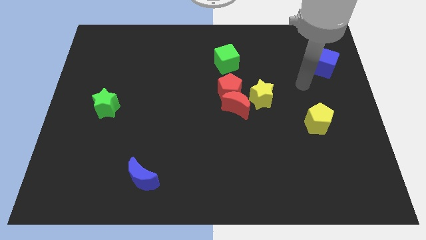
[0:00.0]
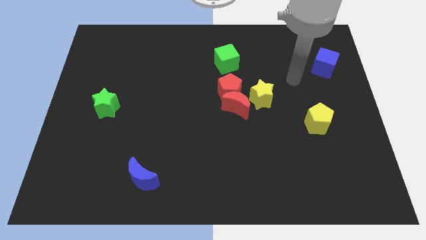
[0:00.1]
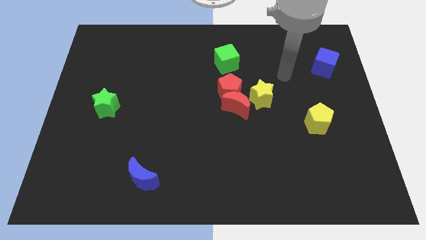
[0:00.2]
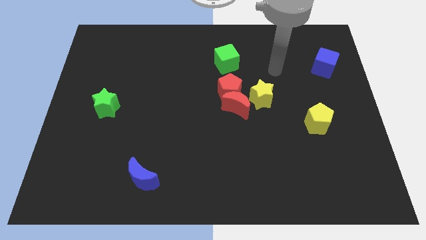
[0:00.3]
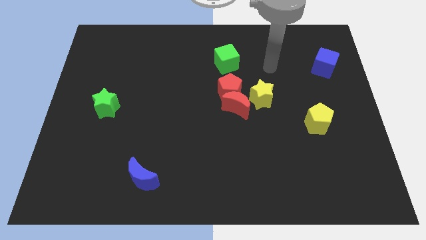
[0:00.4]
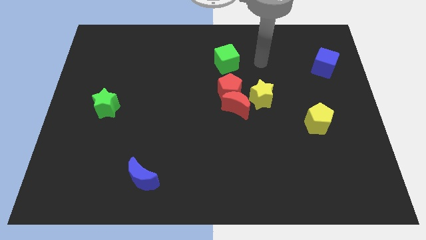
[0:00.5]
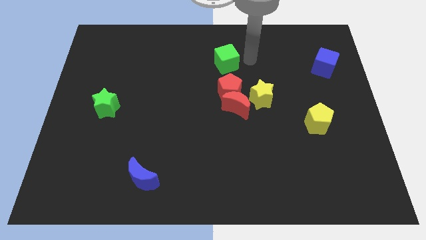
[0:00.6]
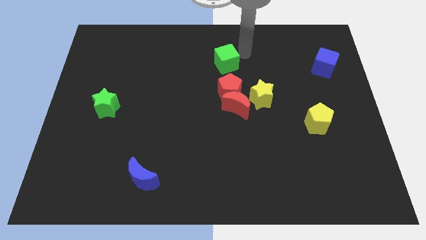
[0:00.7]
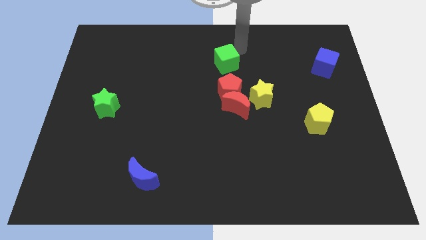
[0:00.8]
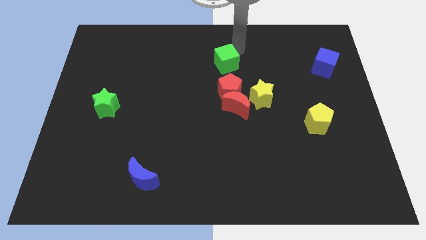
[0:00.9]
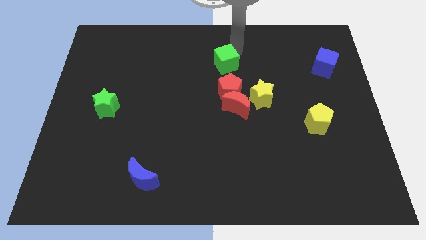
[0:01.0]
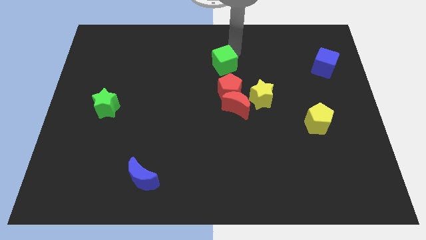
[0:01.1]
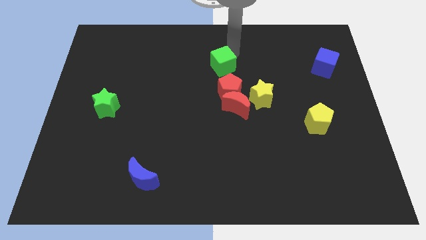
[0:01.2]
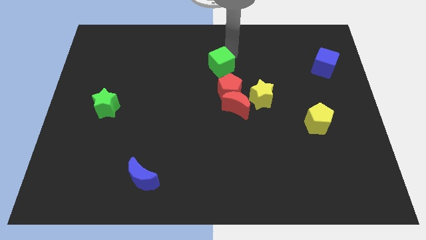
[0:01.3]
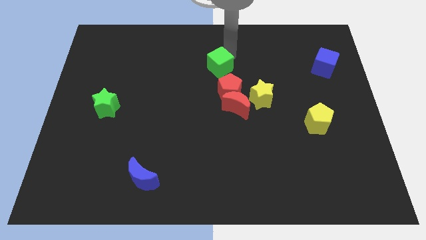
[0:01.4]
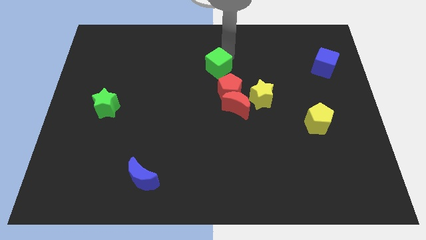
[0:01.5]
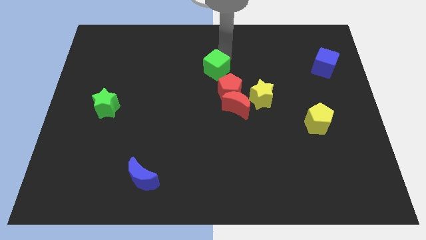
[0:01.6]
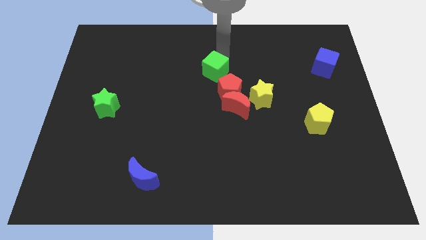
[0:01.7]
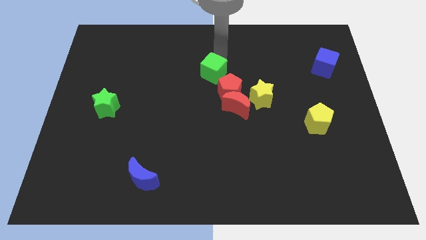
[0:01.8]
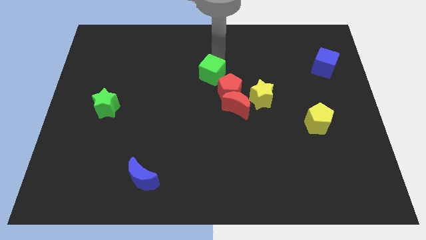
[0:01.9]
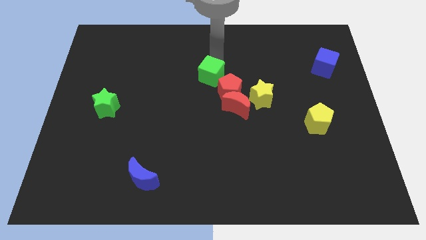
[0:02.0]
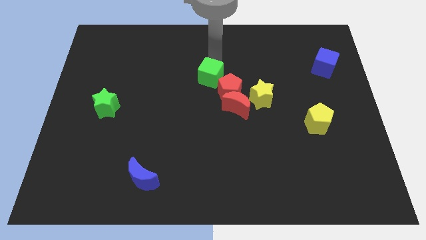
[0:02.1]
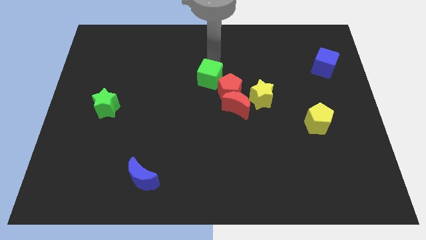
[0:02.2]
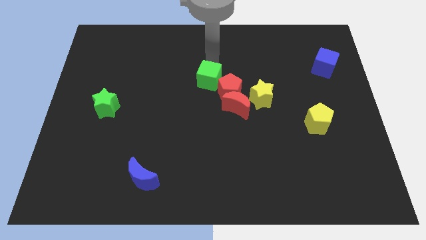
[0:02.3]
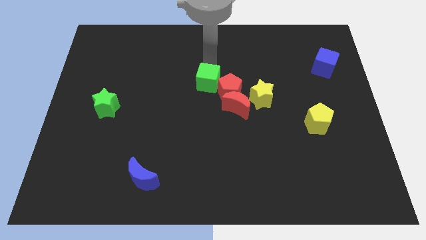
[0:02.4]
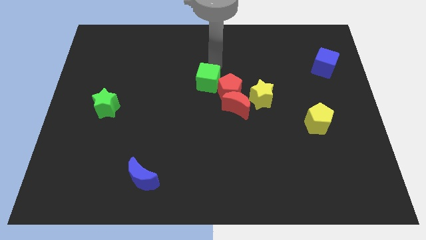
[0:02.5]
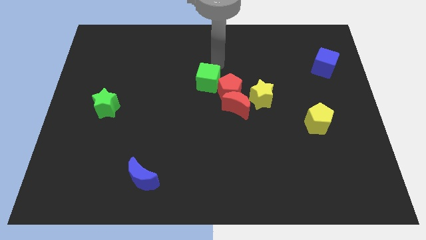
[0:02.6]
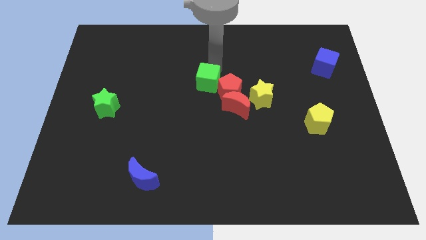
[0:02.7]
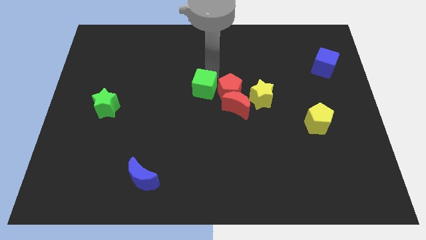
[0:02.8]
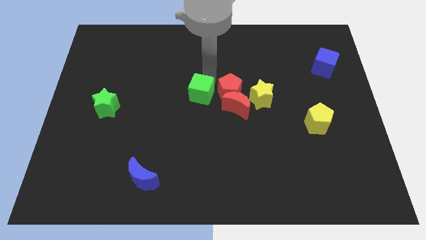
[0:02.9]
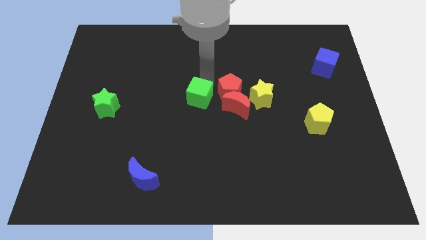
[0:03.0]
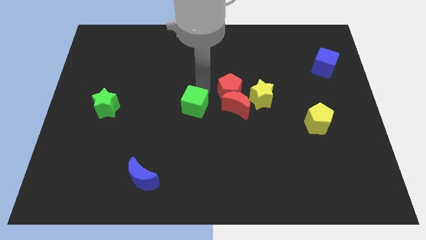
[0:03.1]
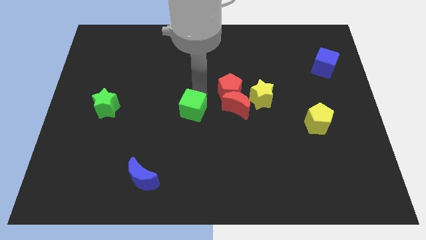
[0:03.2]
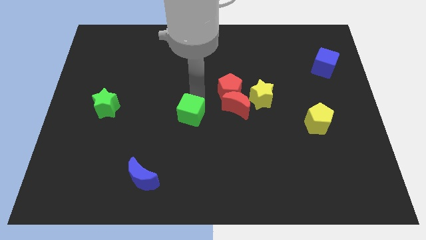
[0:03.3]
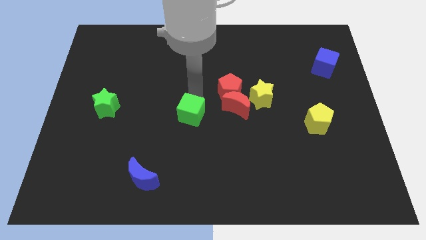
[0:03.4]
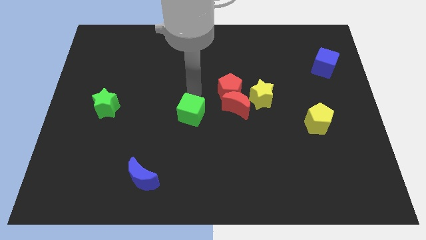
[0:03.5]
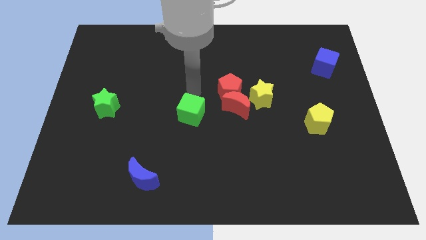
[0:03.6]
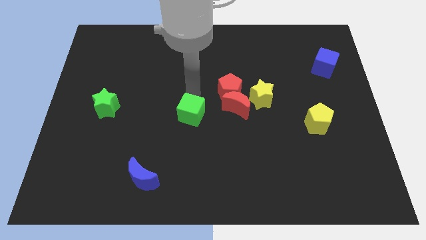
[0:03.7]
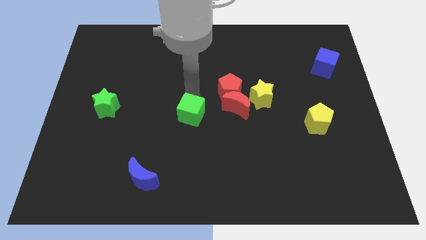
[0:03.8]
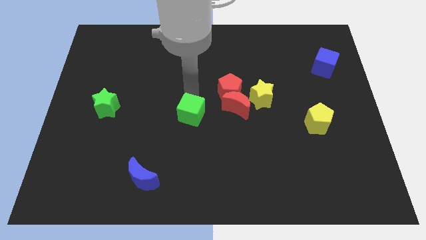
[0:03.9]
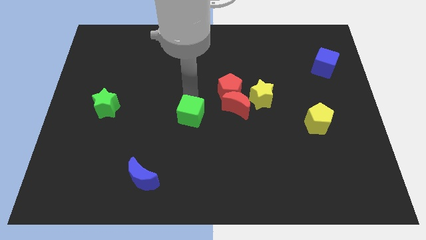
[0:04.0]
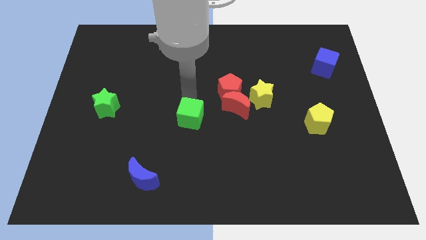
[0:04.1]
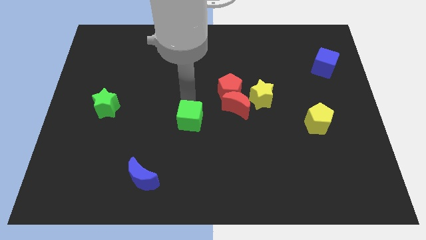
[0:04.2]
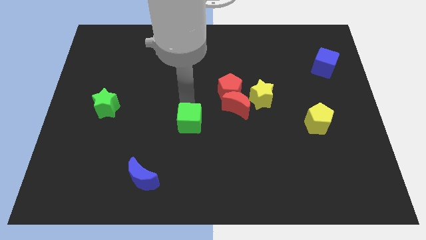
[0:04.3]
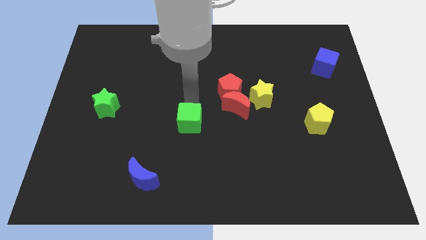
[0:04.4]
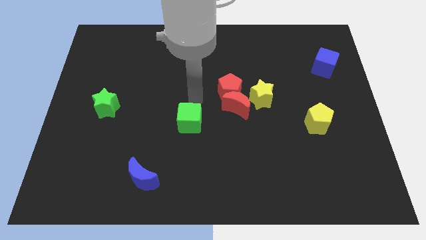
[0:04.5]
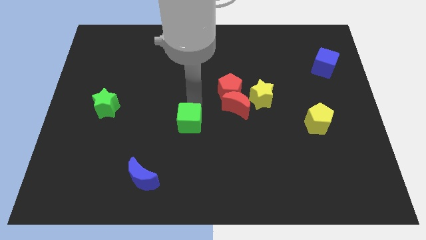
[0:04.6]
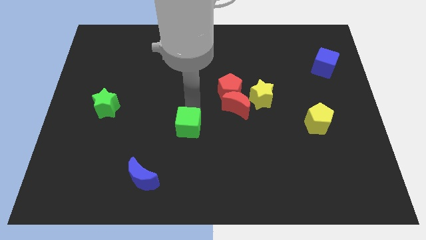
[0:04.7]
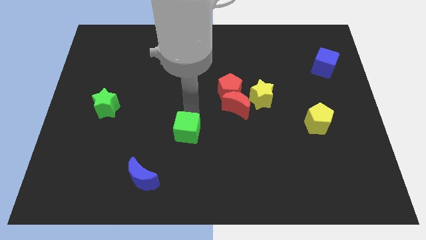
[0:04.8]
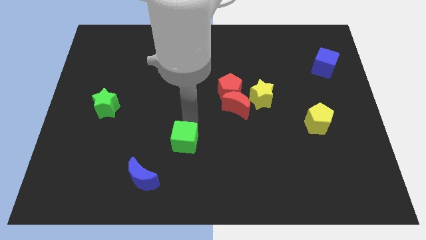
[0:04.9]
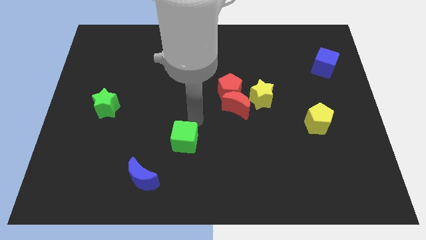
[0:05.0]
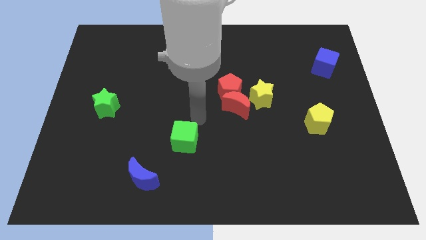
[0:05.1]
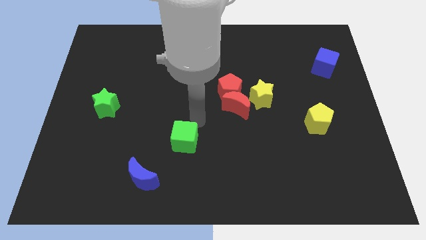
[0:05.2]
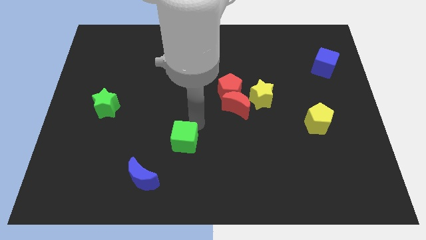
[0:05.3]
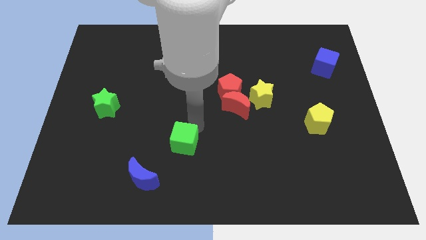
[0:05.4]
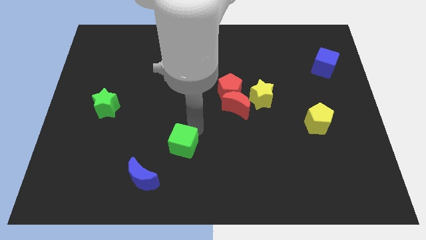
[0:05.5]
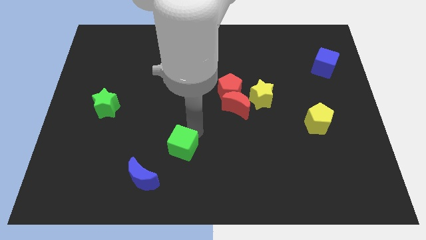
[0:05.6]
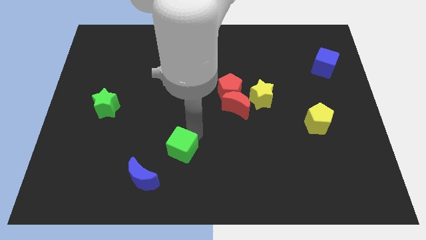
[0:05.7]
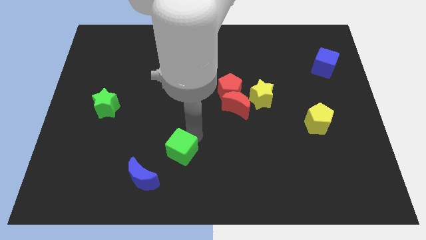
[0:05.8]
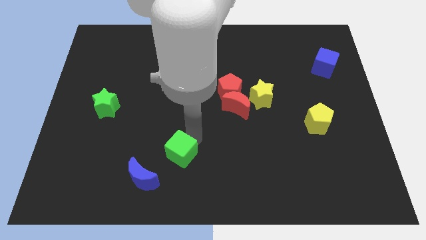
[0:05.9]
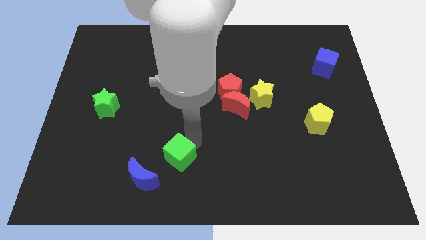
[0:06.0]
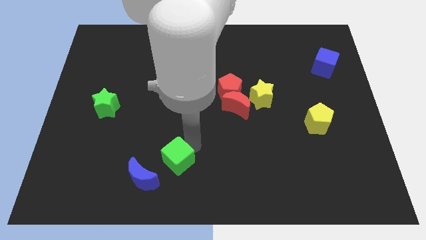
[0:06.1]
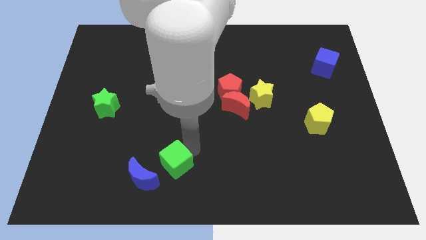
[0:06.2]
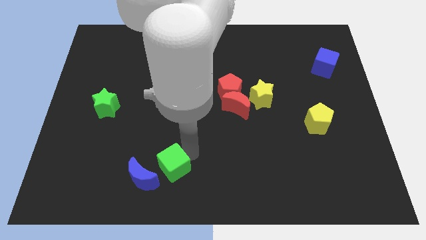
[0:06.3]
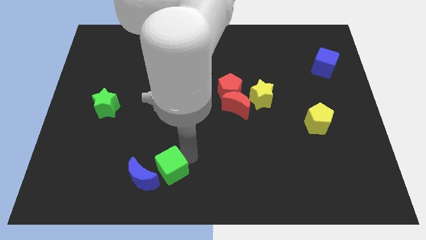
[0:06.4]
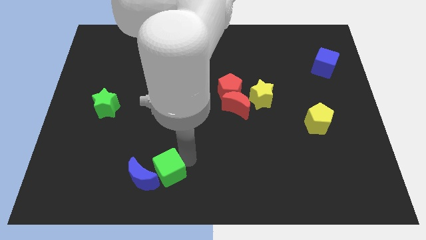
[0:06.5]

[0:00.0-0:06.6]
slide the green cube to the blue moon
